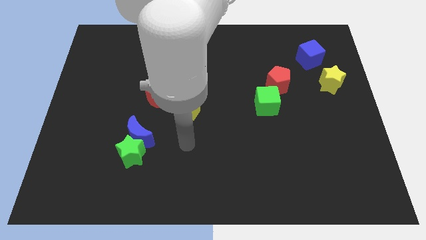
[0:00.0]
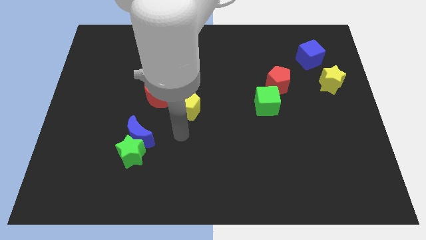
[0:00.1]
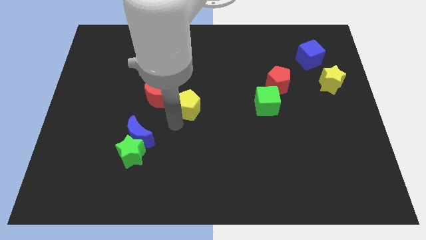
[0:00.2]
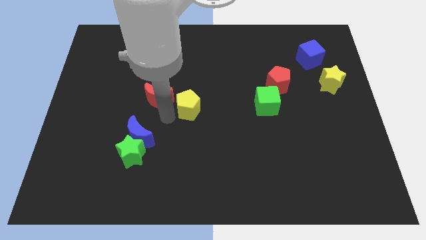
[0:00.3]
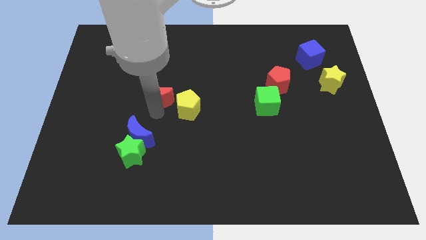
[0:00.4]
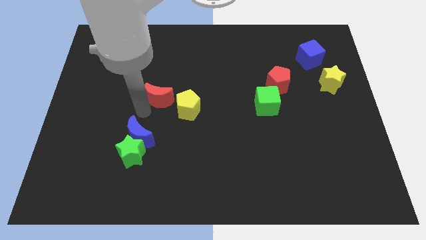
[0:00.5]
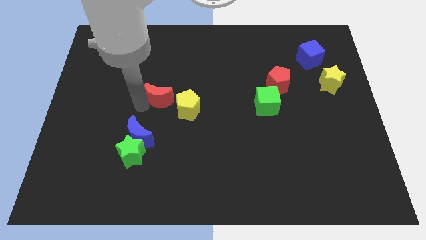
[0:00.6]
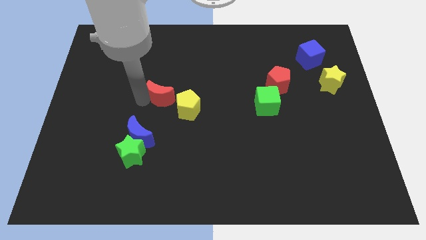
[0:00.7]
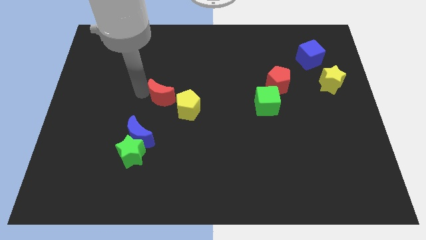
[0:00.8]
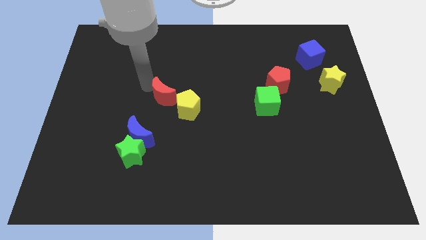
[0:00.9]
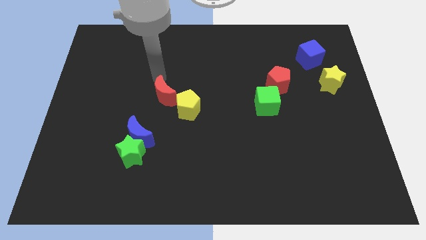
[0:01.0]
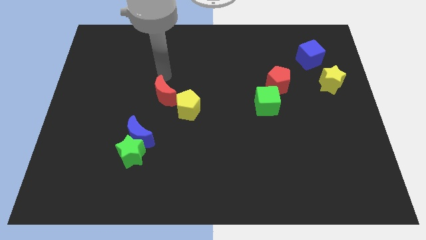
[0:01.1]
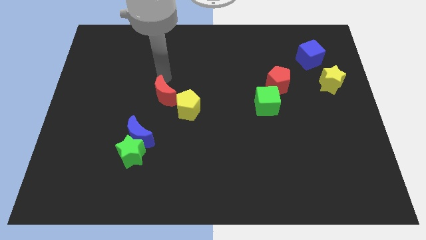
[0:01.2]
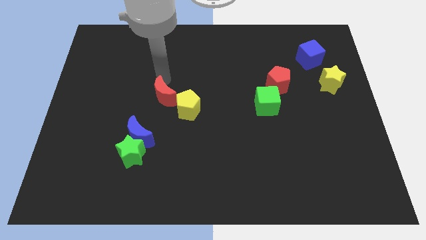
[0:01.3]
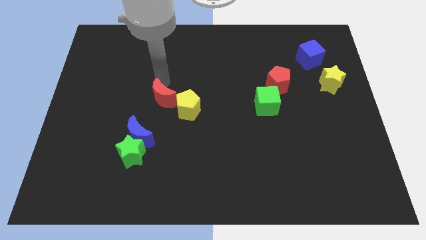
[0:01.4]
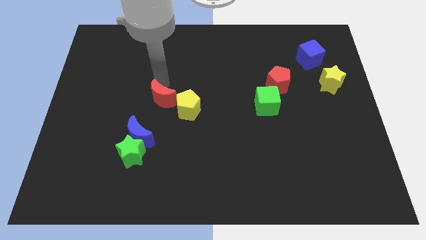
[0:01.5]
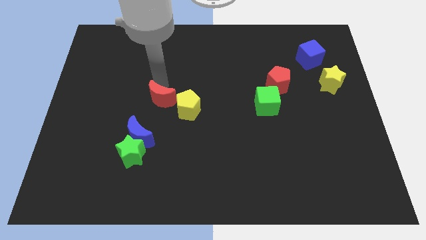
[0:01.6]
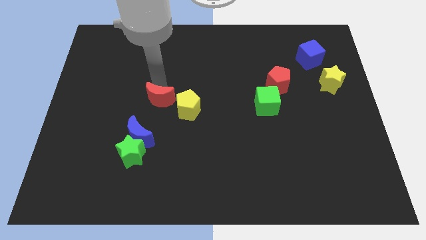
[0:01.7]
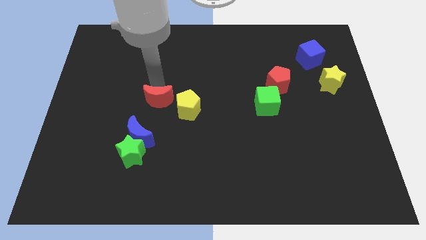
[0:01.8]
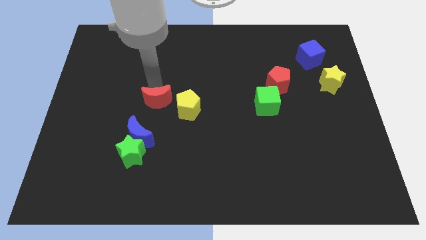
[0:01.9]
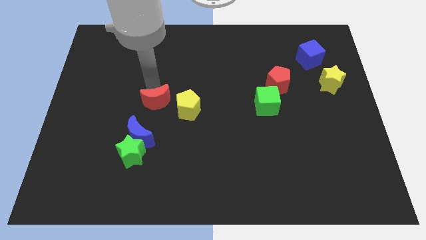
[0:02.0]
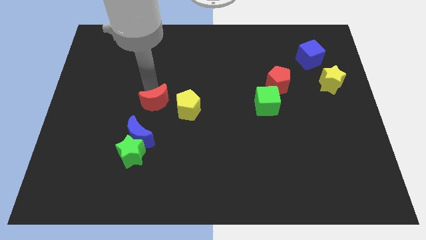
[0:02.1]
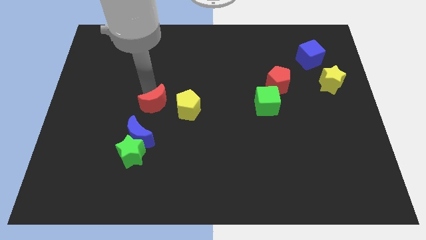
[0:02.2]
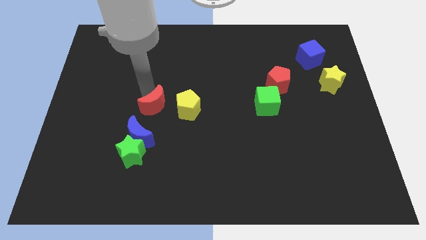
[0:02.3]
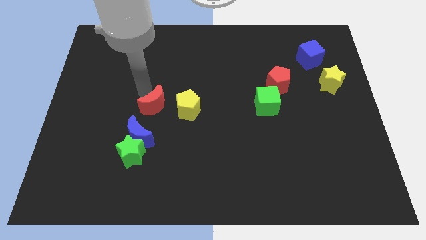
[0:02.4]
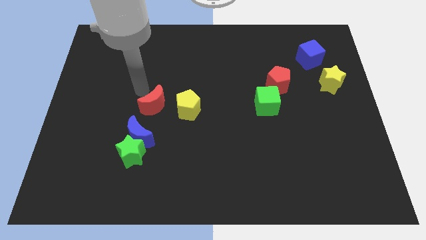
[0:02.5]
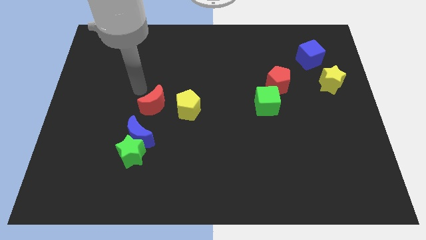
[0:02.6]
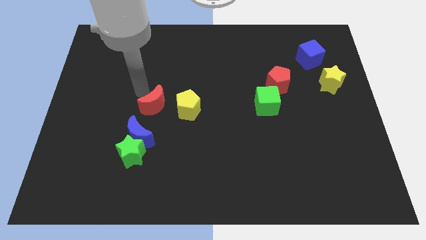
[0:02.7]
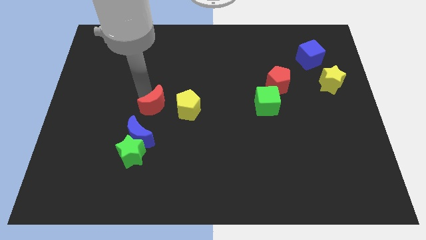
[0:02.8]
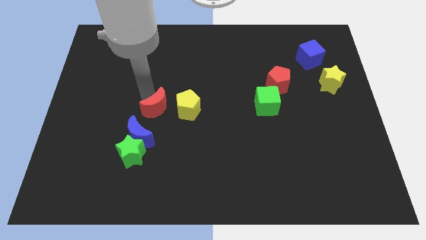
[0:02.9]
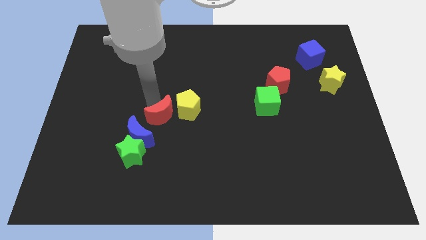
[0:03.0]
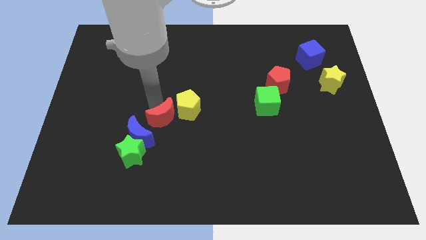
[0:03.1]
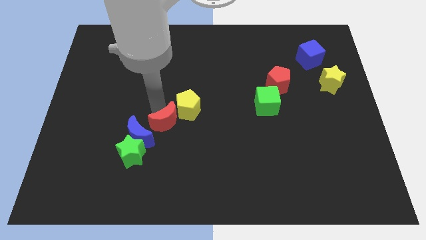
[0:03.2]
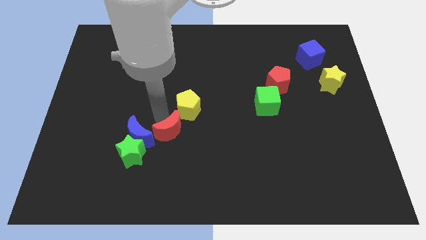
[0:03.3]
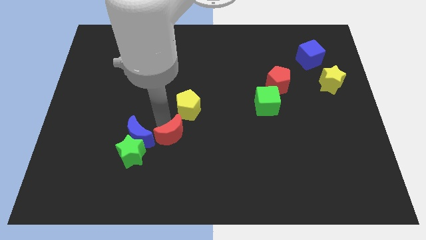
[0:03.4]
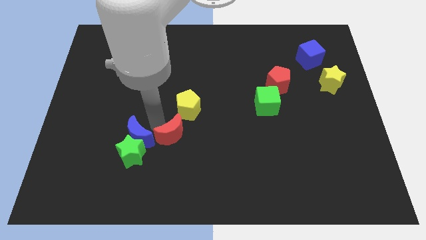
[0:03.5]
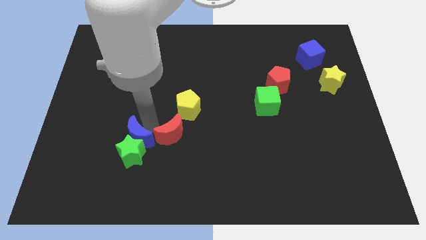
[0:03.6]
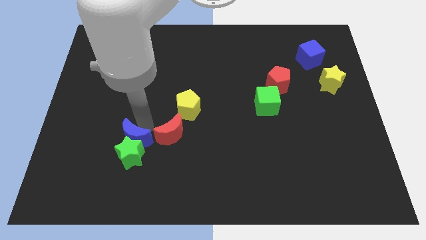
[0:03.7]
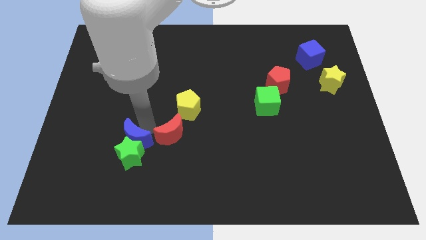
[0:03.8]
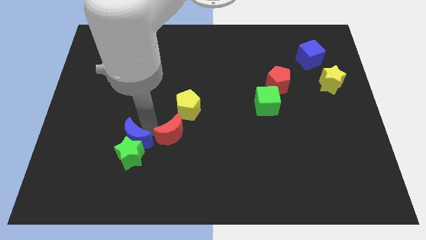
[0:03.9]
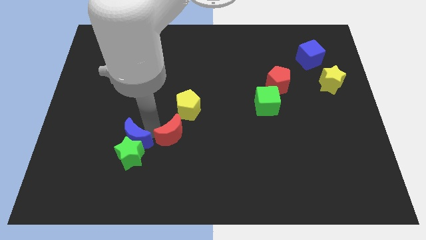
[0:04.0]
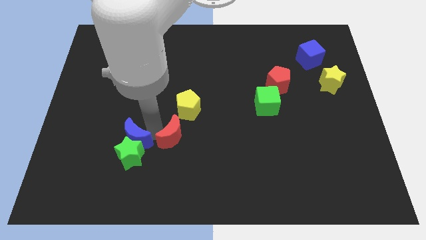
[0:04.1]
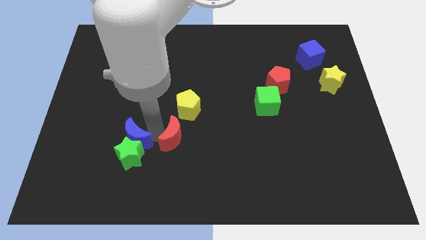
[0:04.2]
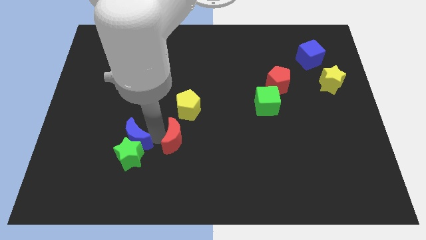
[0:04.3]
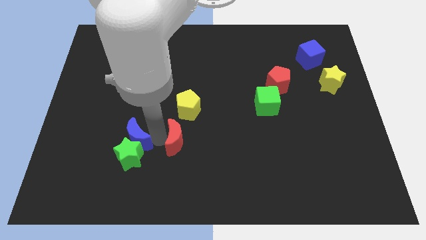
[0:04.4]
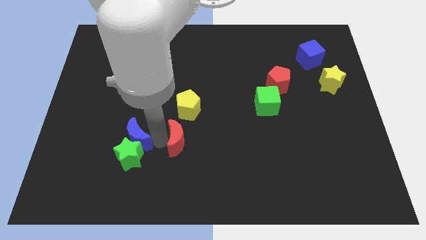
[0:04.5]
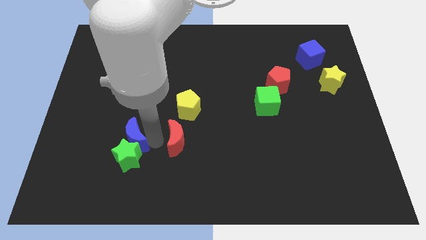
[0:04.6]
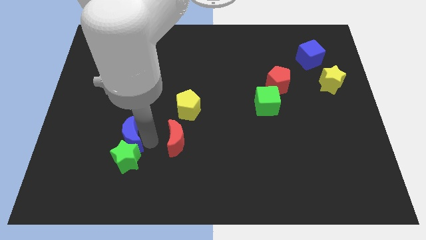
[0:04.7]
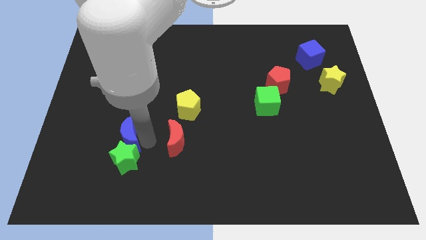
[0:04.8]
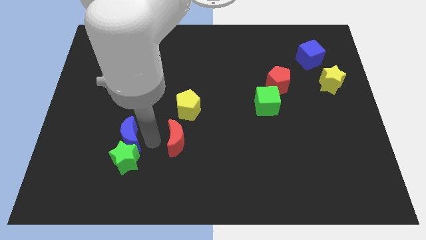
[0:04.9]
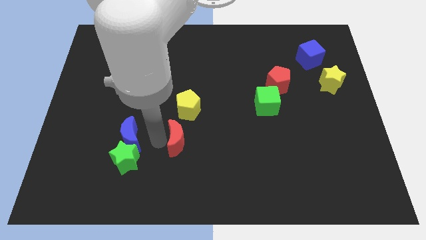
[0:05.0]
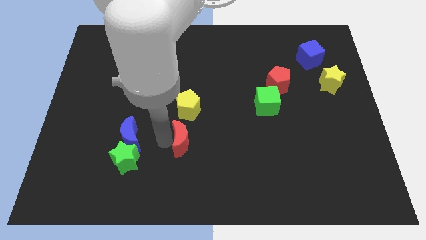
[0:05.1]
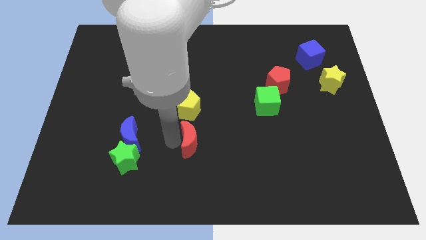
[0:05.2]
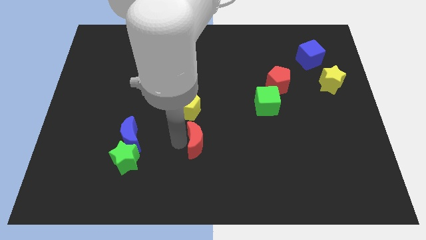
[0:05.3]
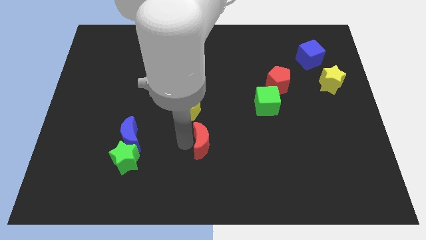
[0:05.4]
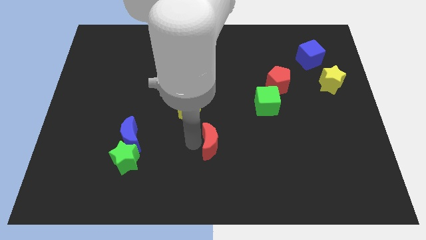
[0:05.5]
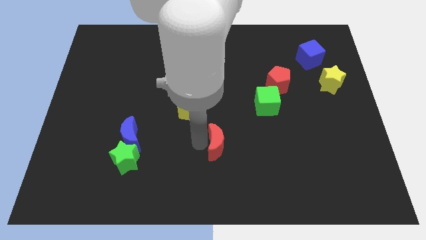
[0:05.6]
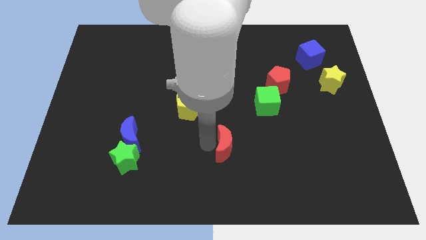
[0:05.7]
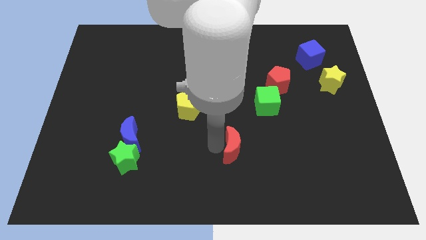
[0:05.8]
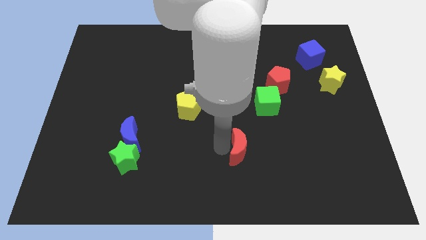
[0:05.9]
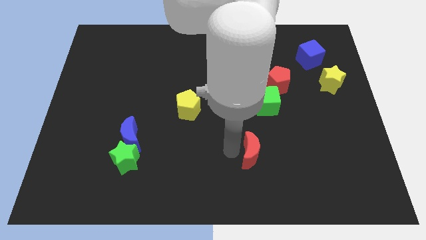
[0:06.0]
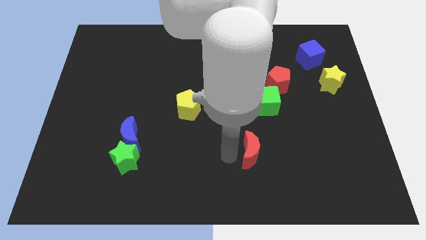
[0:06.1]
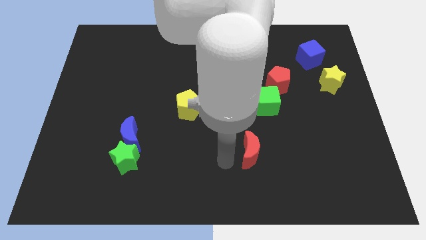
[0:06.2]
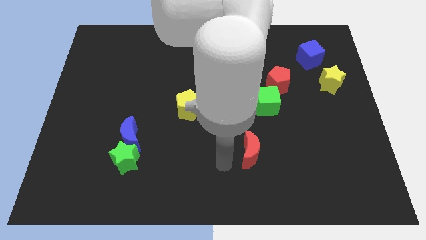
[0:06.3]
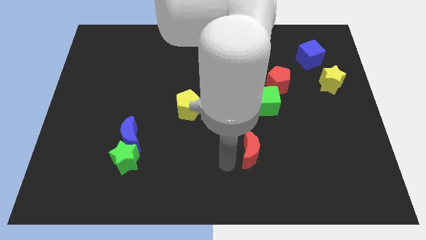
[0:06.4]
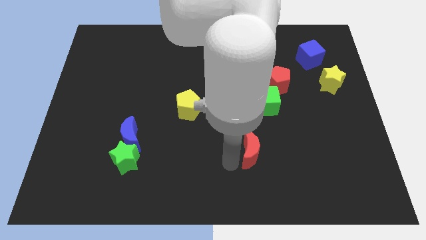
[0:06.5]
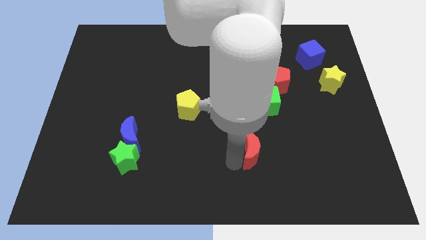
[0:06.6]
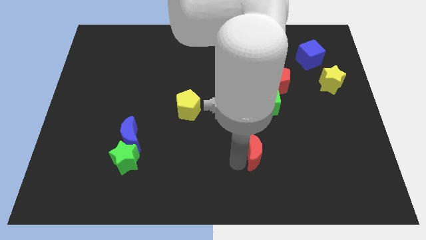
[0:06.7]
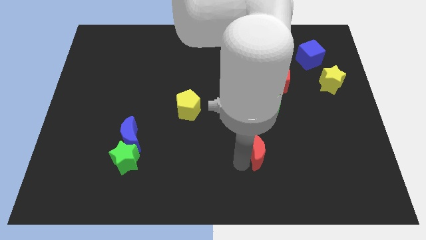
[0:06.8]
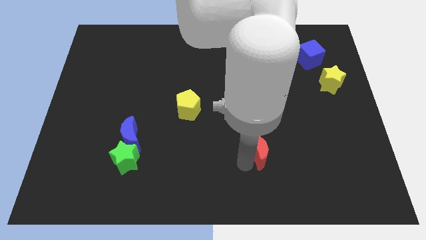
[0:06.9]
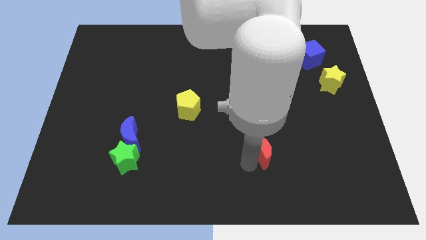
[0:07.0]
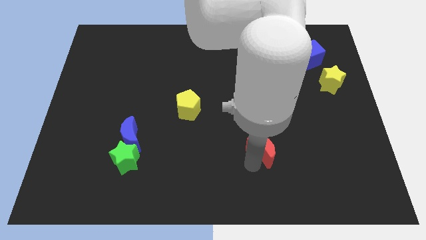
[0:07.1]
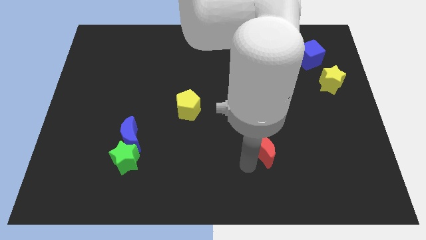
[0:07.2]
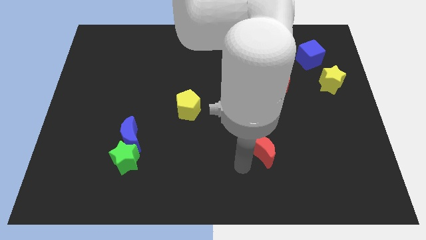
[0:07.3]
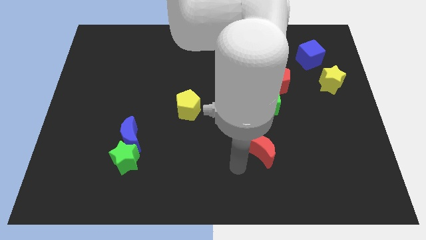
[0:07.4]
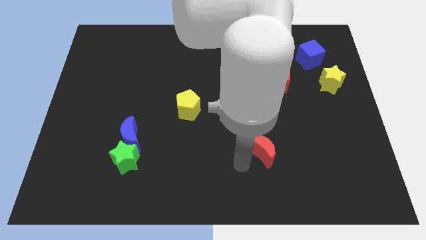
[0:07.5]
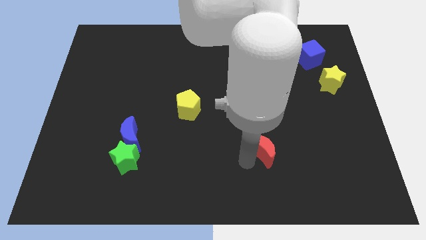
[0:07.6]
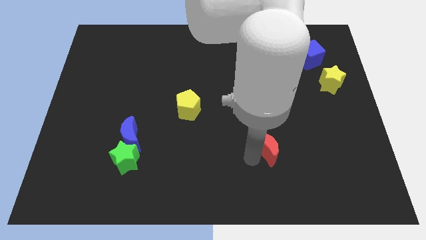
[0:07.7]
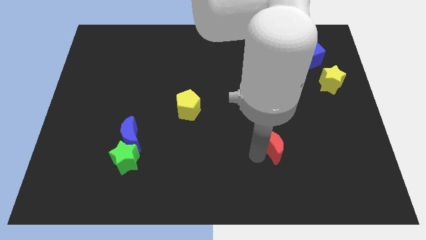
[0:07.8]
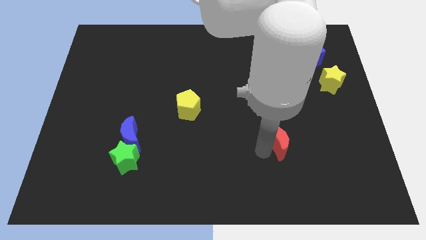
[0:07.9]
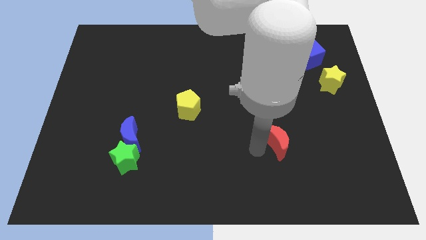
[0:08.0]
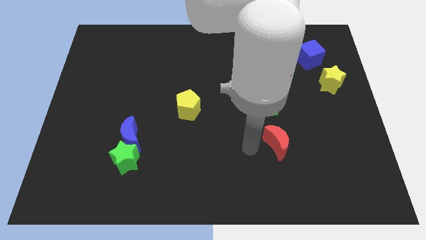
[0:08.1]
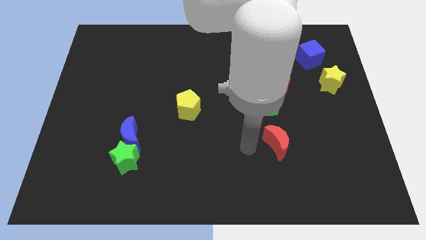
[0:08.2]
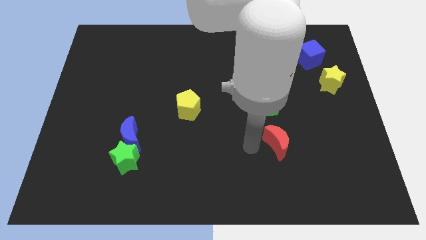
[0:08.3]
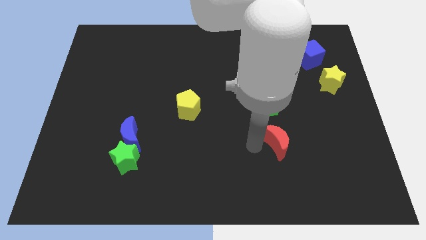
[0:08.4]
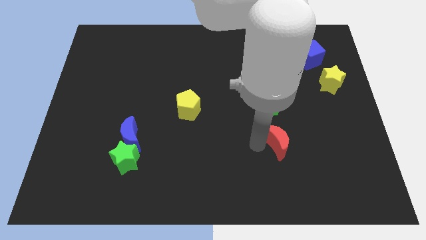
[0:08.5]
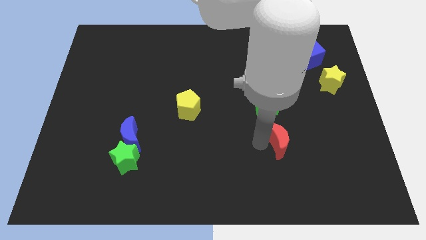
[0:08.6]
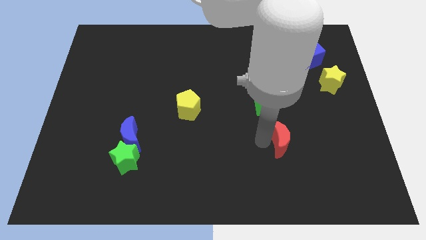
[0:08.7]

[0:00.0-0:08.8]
slide the red moon to the right
